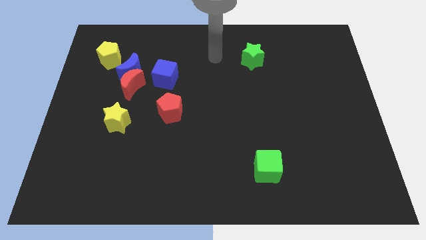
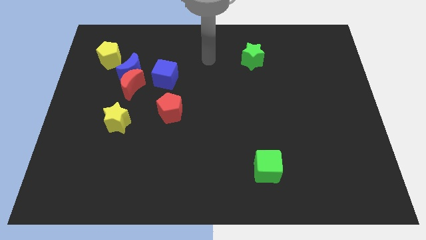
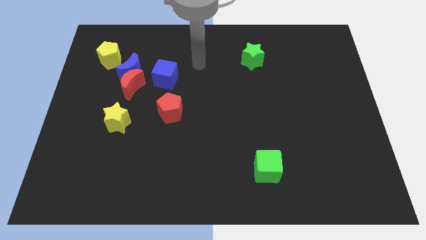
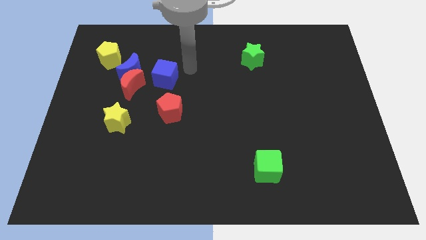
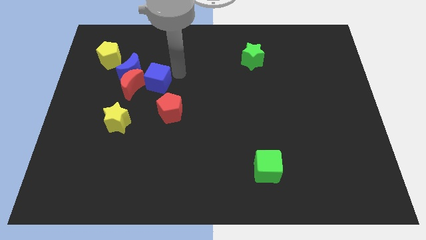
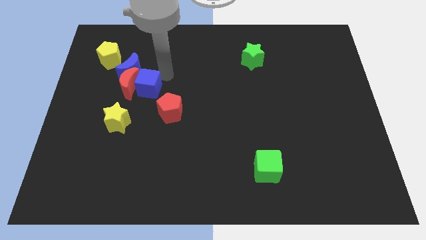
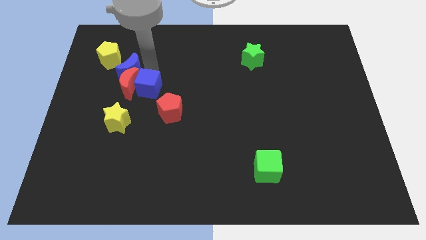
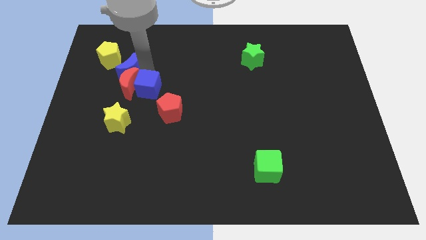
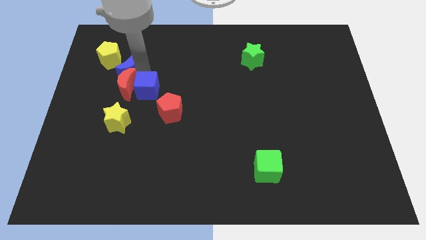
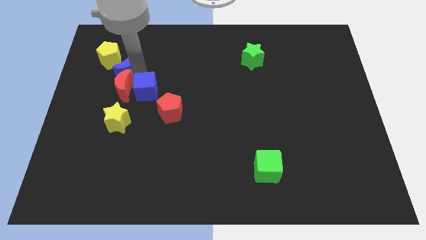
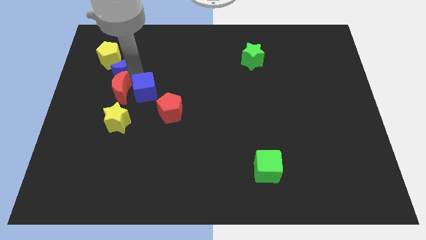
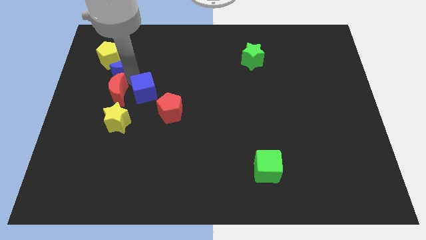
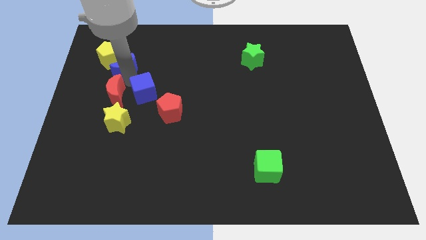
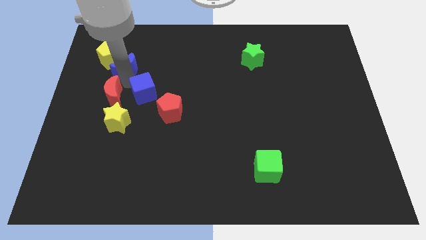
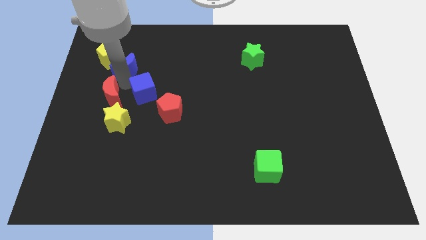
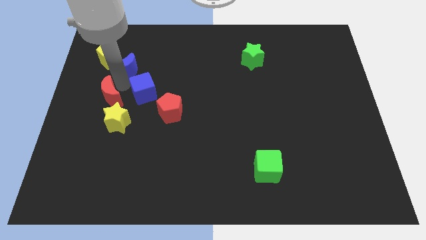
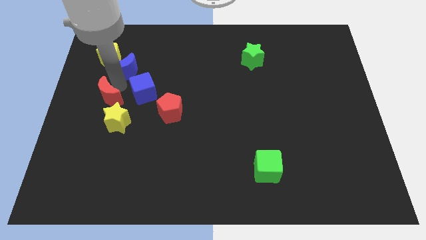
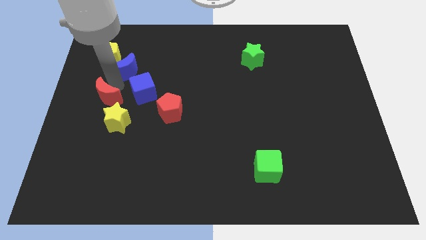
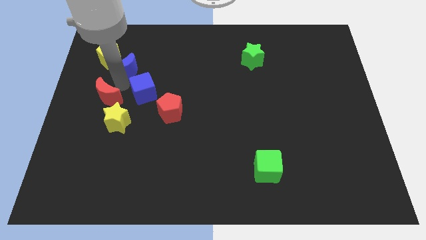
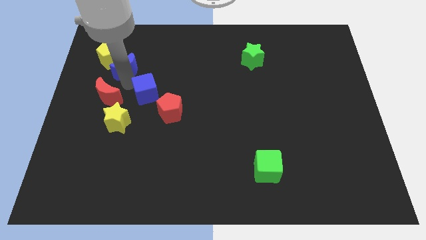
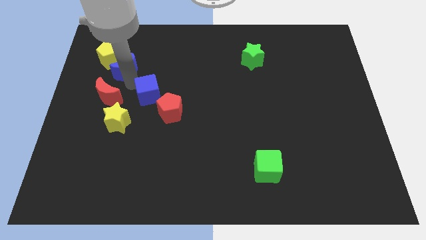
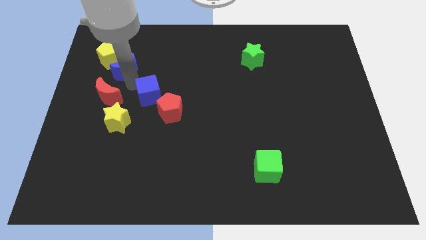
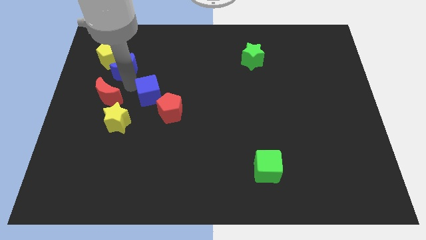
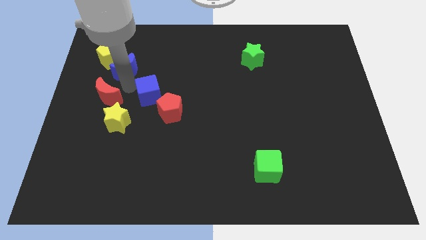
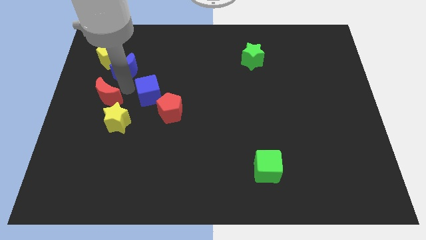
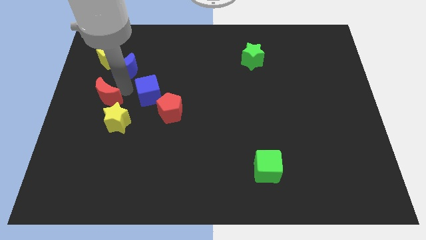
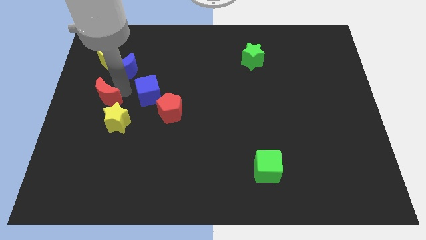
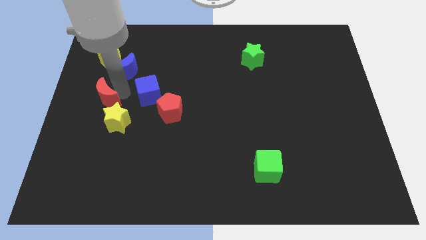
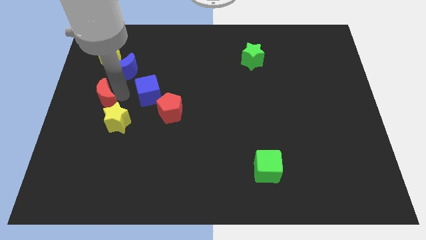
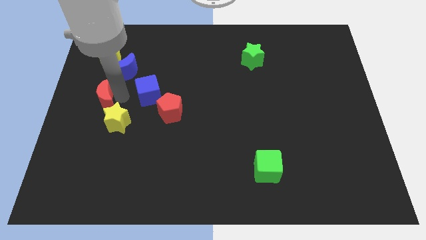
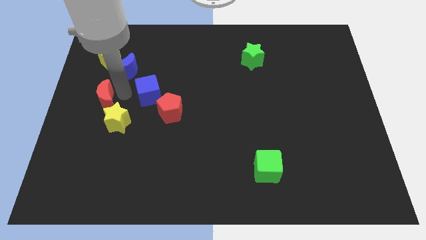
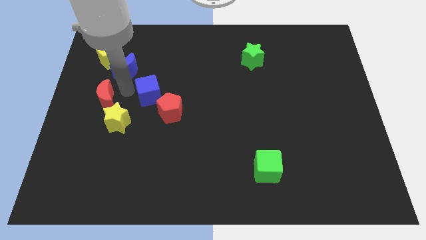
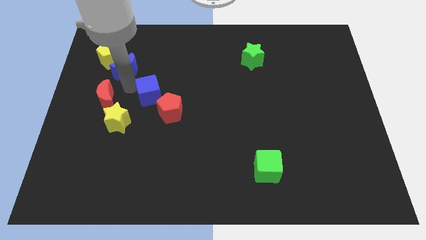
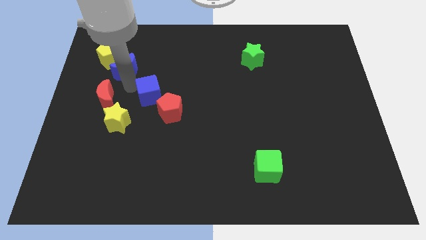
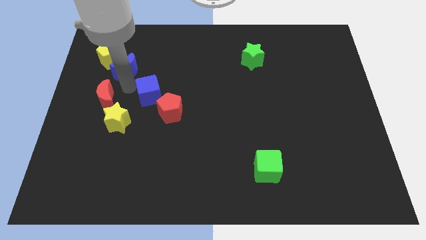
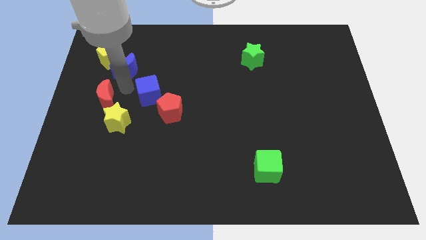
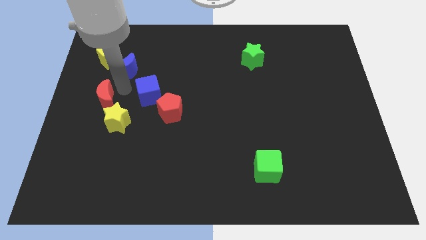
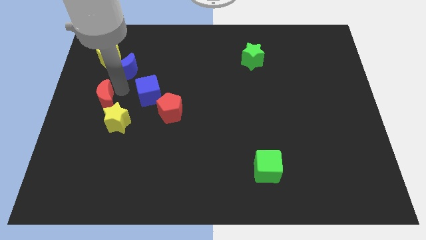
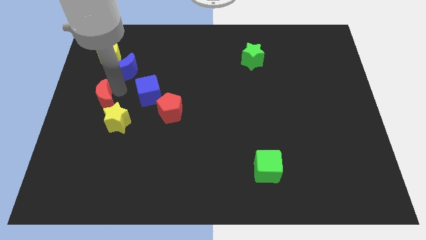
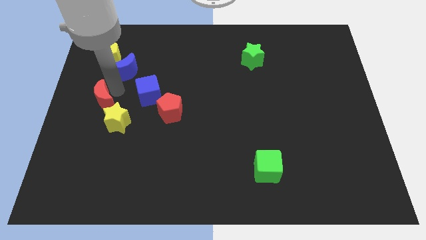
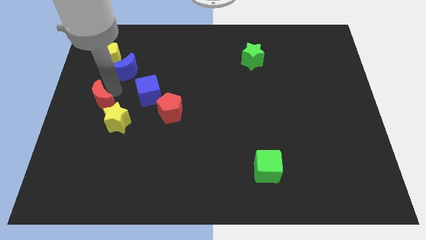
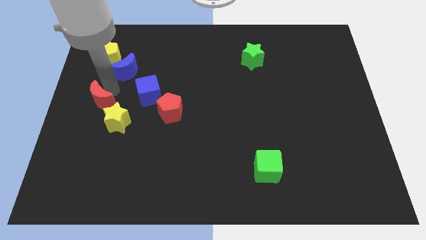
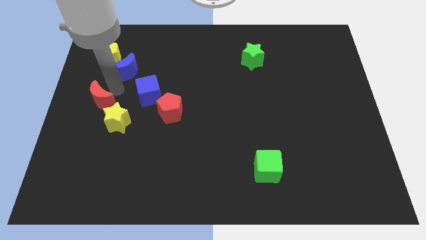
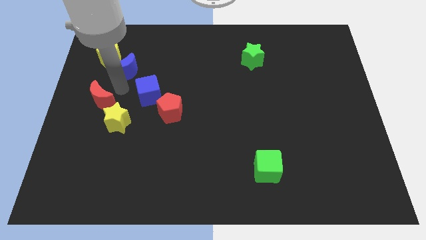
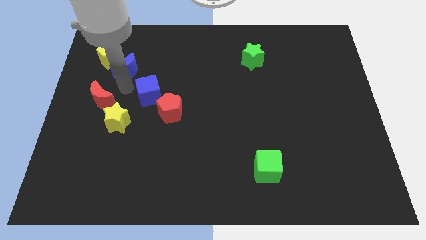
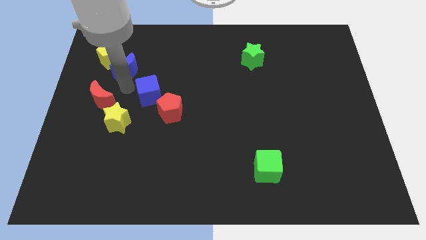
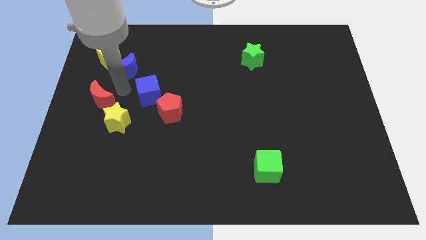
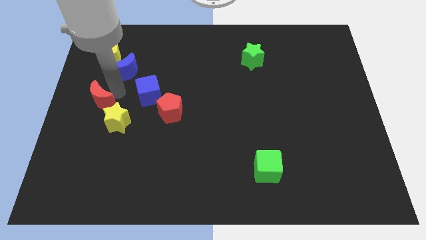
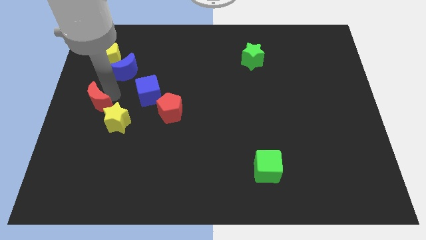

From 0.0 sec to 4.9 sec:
move the red moon away from the blue moon and blue cube

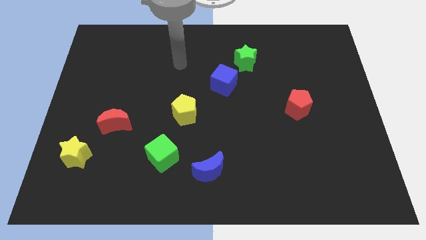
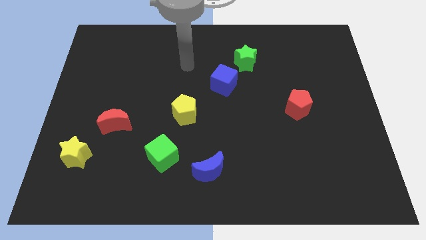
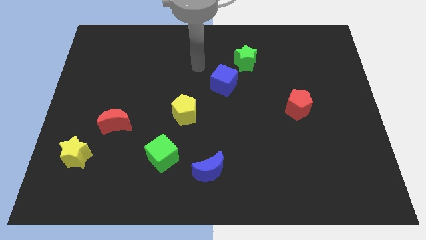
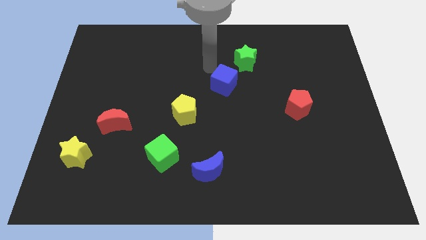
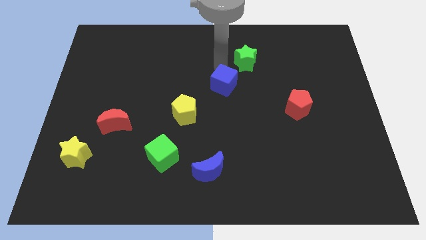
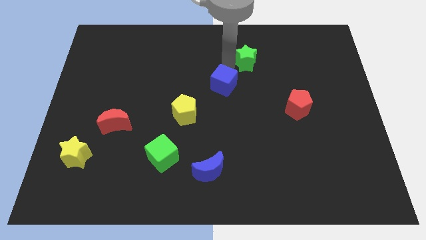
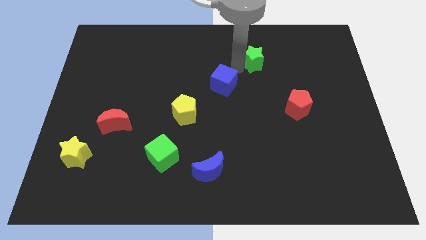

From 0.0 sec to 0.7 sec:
move the blue cube away from the green star

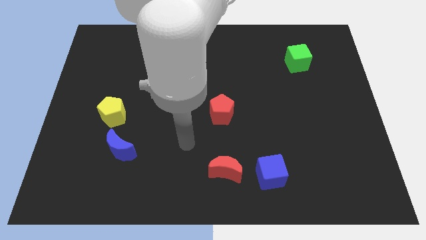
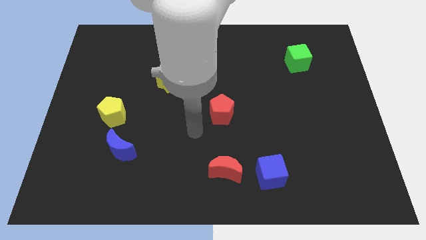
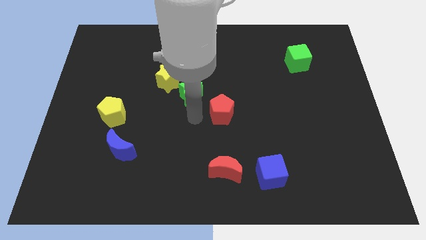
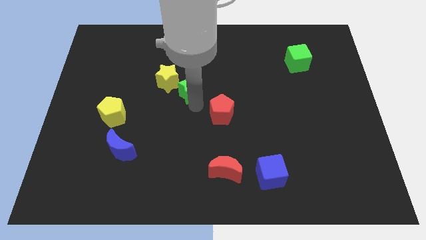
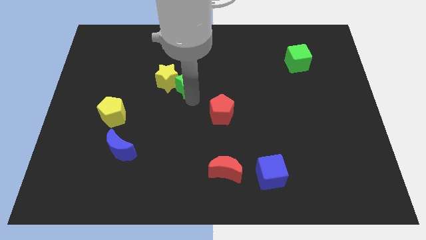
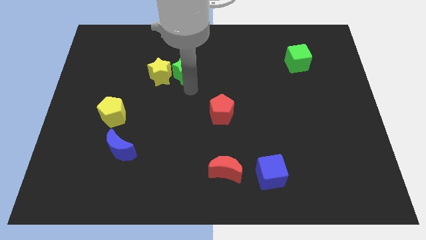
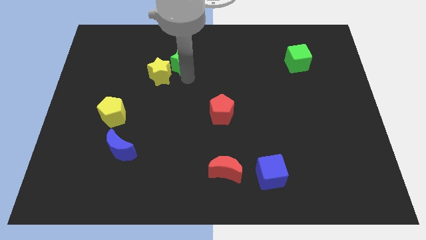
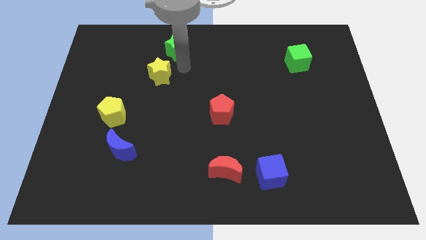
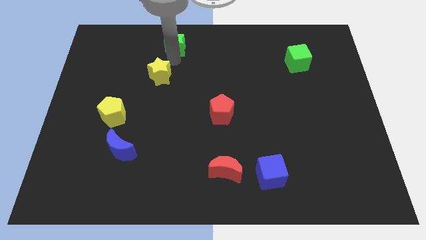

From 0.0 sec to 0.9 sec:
separate the yellow star from the green star

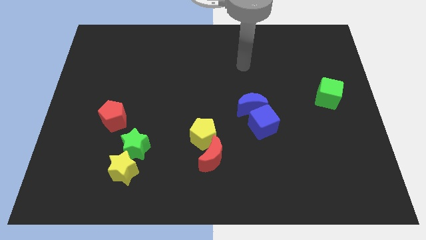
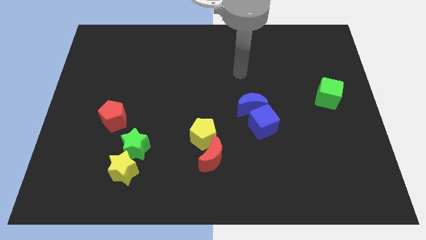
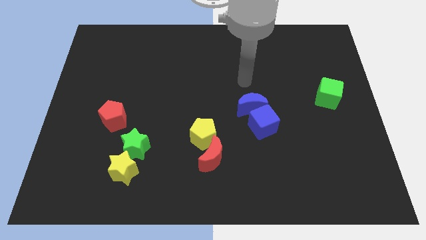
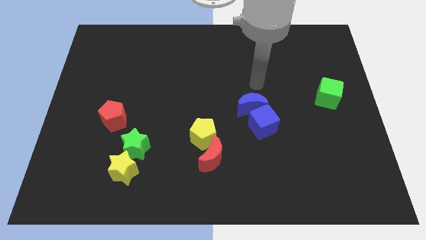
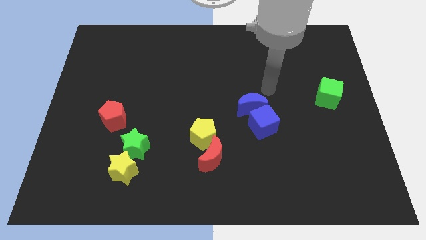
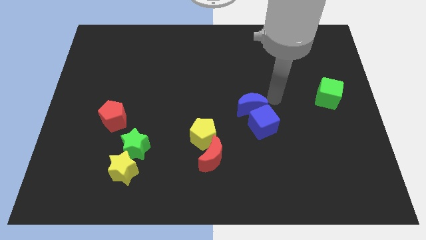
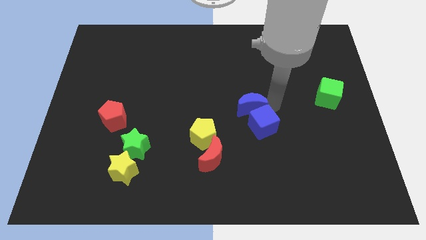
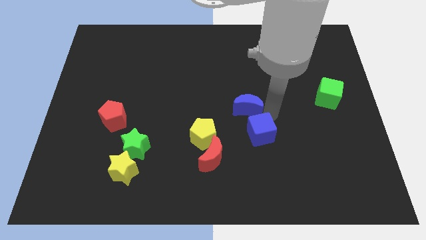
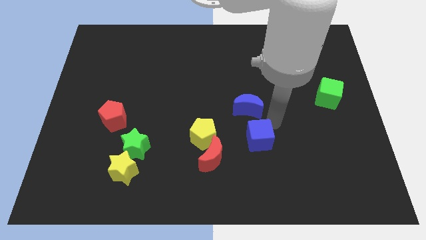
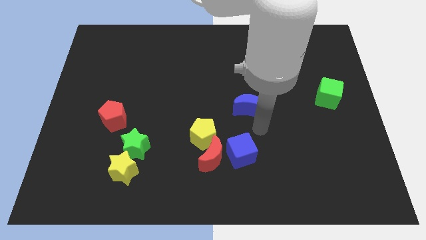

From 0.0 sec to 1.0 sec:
pull the blue moon apart from the blue cube

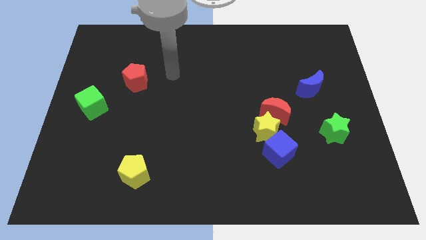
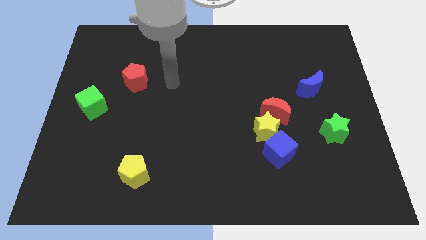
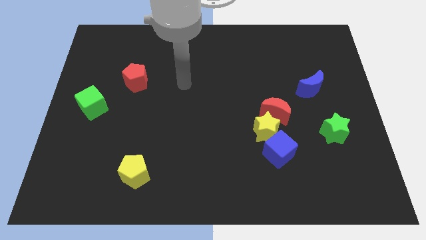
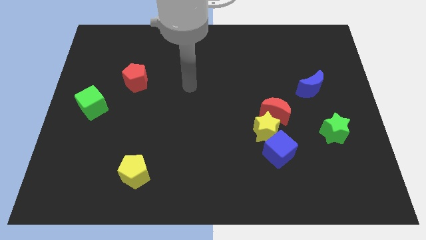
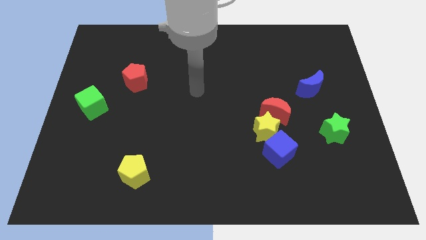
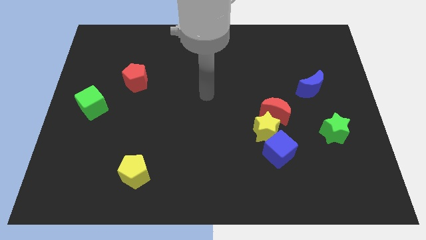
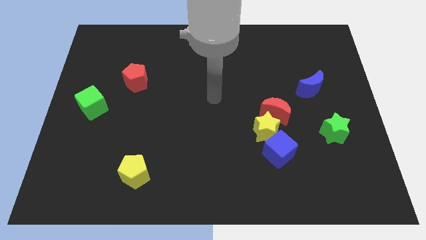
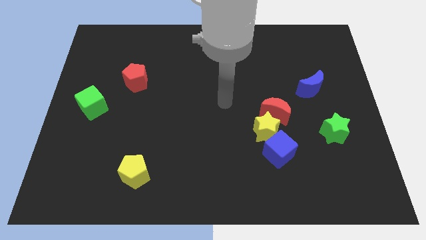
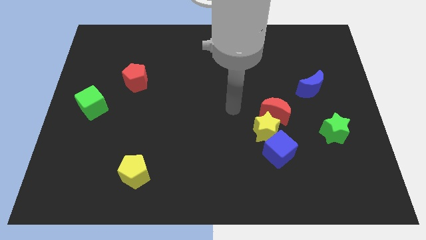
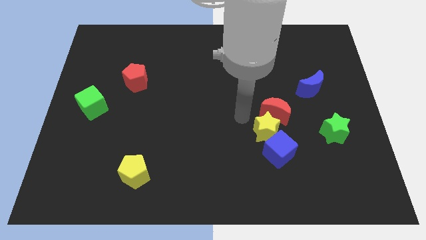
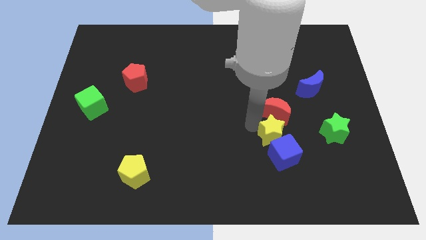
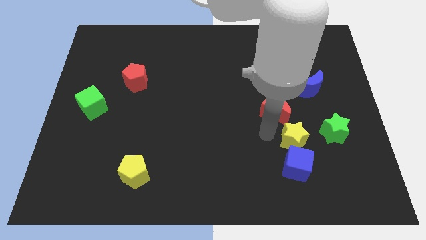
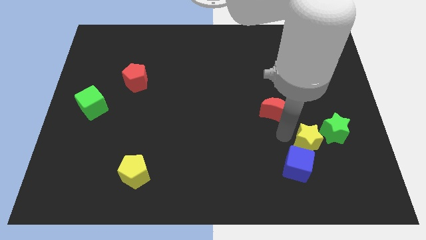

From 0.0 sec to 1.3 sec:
pull the red moon apart from the yellow star

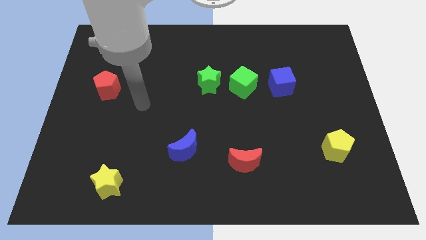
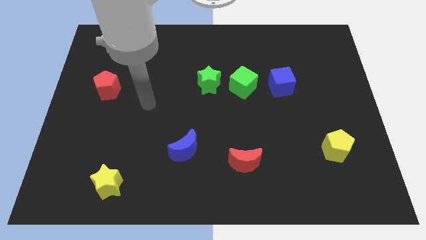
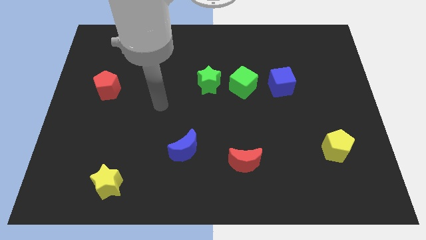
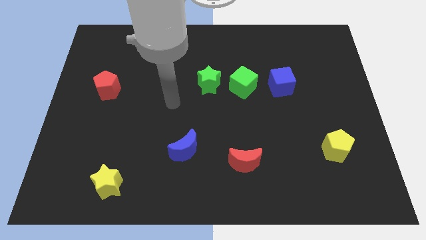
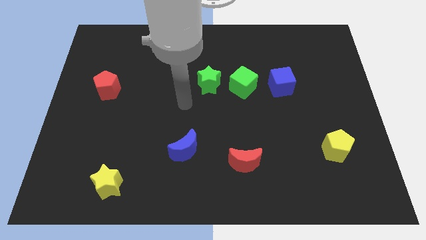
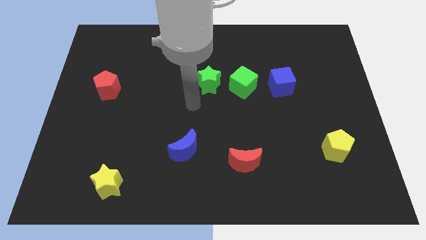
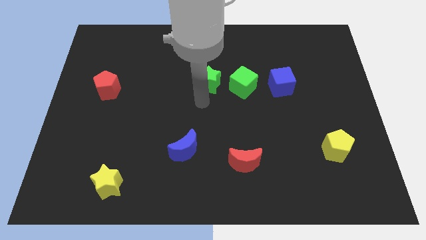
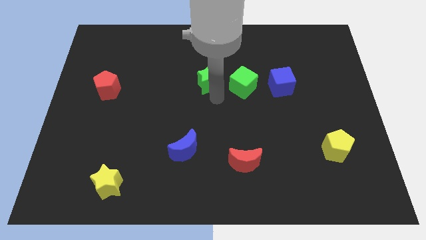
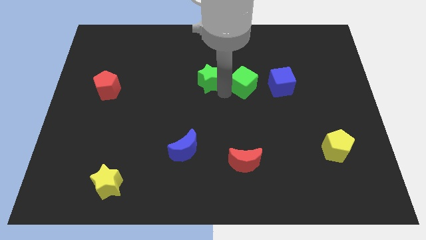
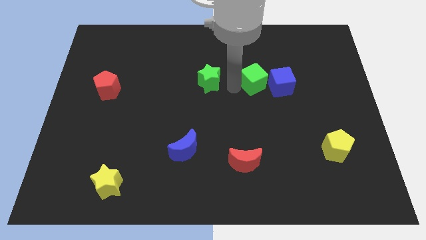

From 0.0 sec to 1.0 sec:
separate the green star from the green cube
